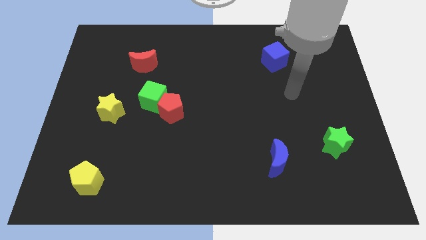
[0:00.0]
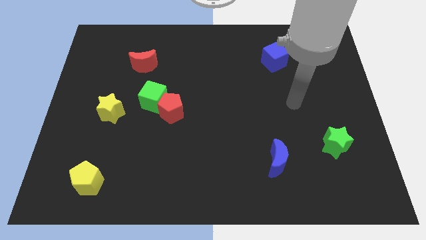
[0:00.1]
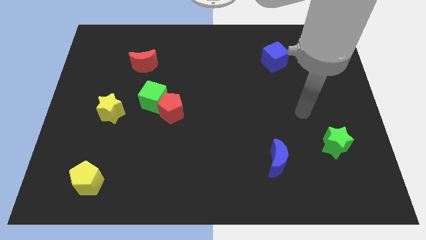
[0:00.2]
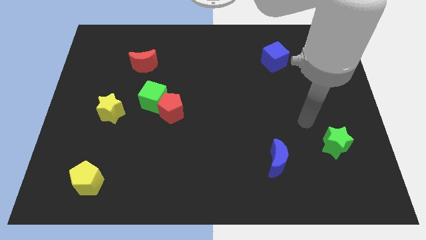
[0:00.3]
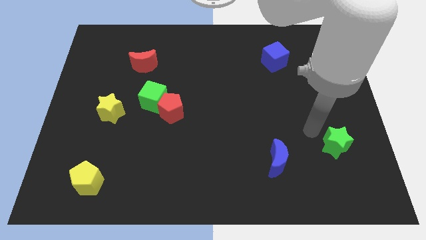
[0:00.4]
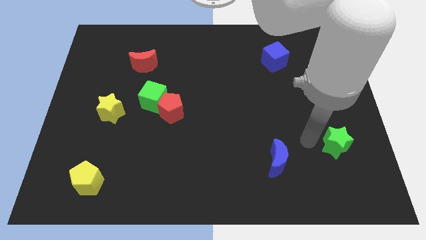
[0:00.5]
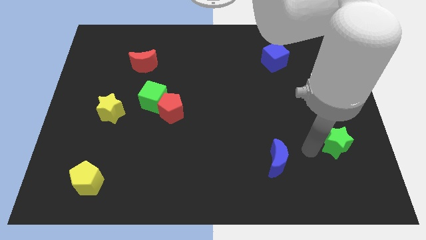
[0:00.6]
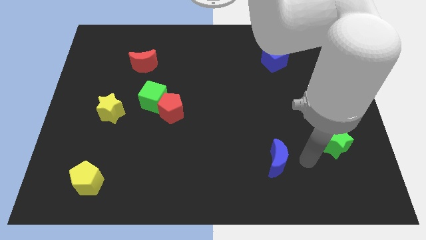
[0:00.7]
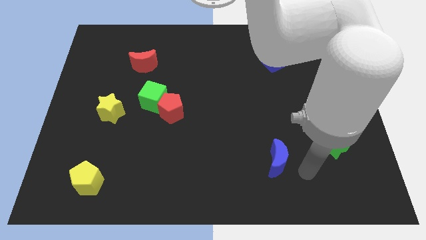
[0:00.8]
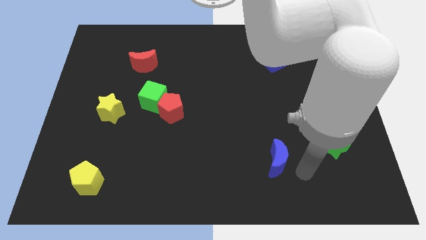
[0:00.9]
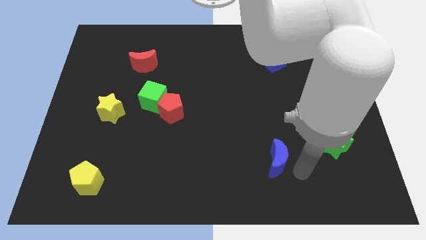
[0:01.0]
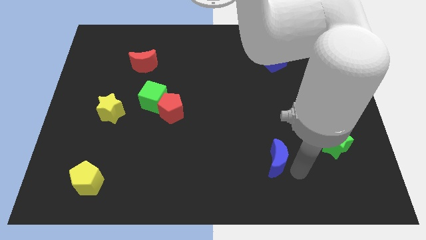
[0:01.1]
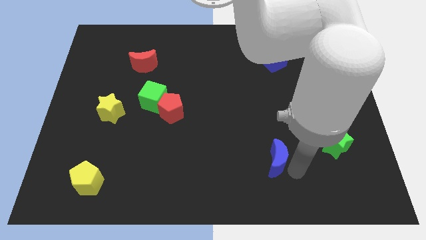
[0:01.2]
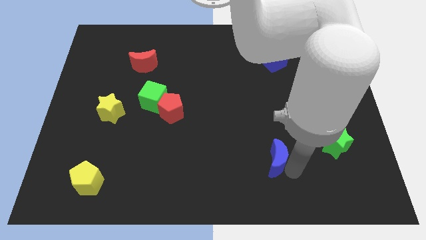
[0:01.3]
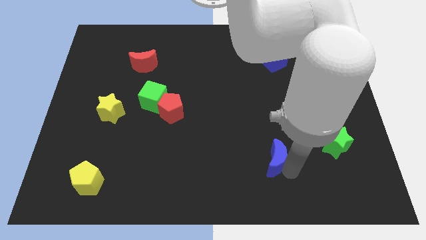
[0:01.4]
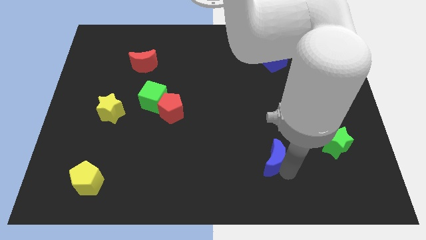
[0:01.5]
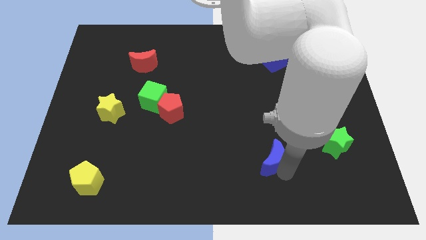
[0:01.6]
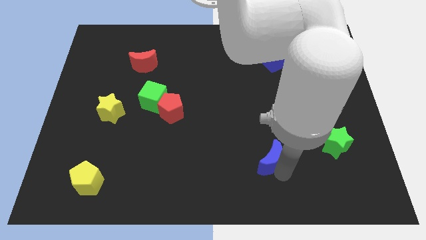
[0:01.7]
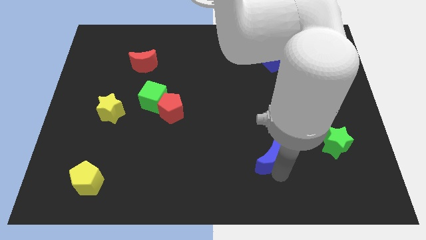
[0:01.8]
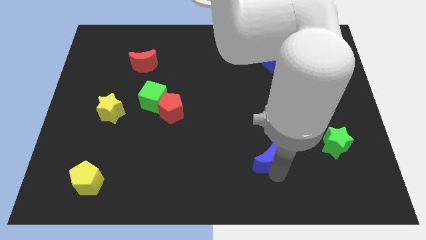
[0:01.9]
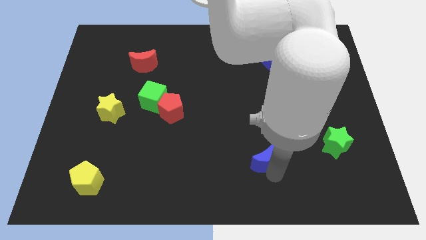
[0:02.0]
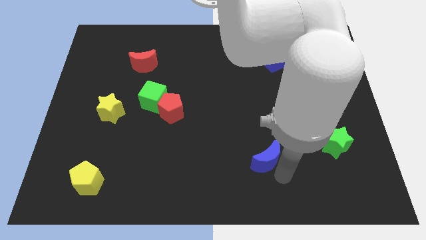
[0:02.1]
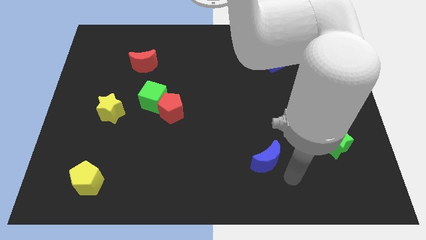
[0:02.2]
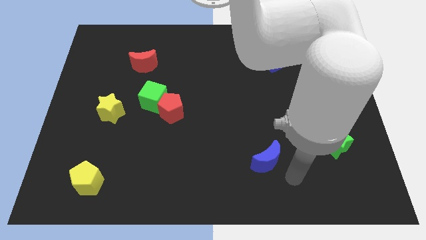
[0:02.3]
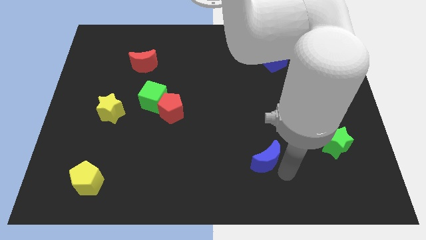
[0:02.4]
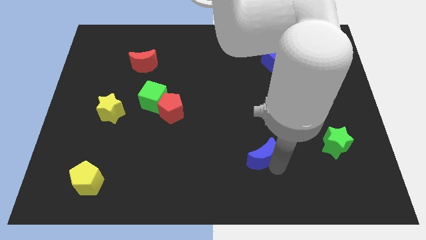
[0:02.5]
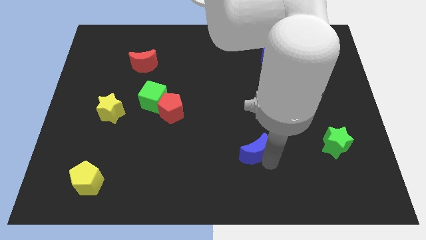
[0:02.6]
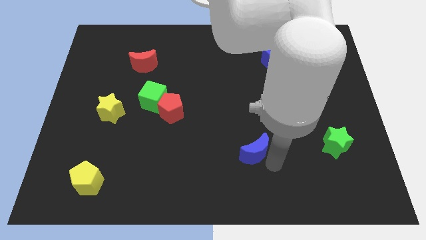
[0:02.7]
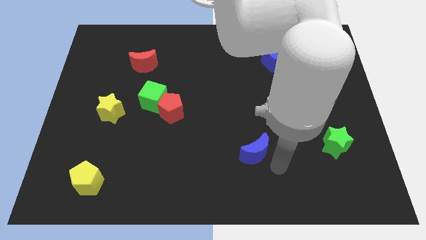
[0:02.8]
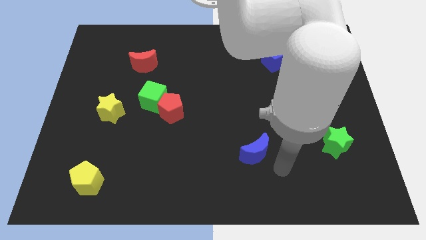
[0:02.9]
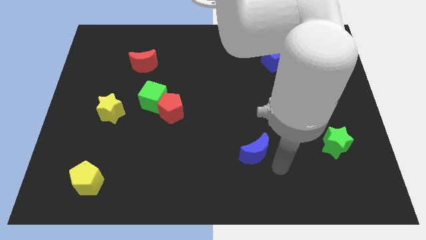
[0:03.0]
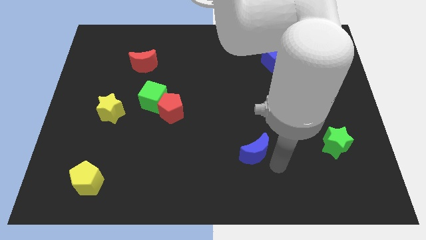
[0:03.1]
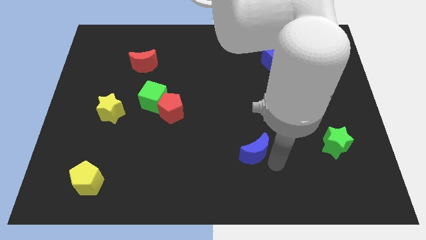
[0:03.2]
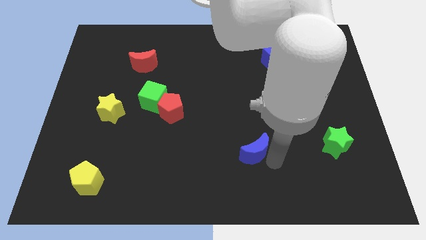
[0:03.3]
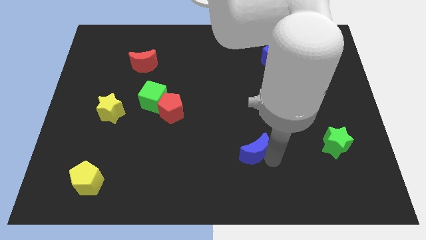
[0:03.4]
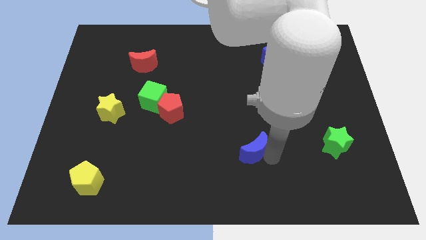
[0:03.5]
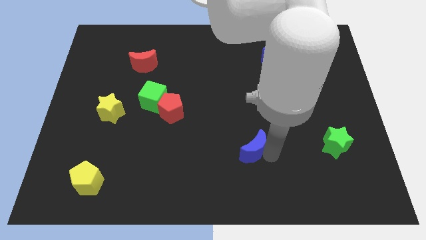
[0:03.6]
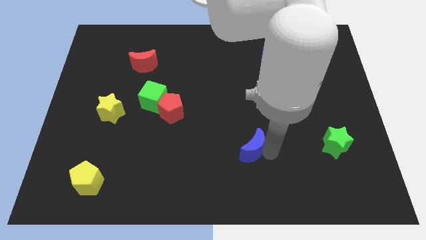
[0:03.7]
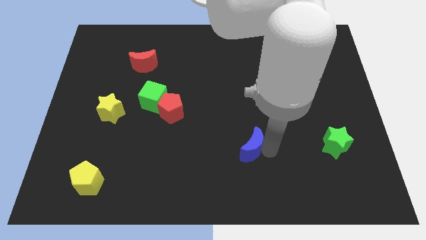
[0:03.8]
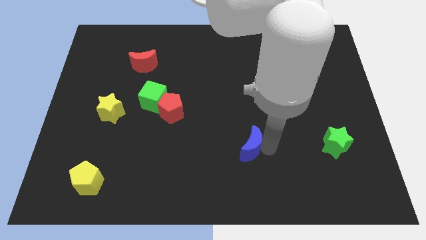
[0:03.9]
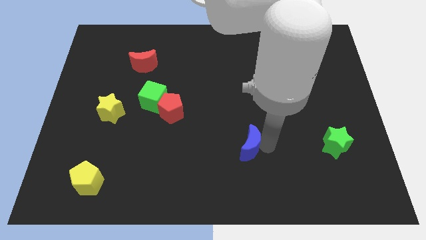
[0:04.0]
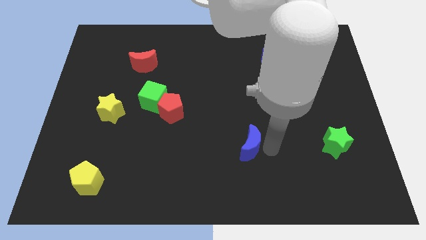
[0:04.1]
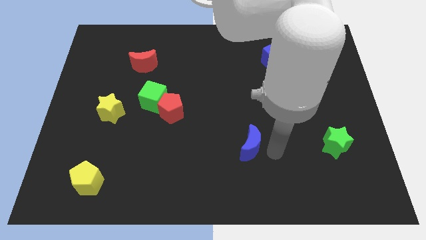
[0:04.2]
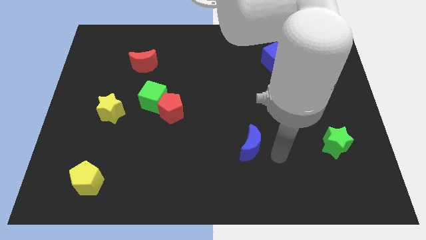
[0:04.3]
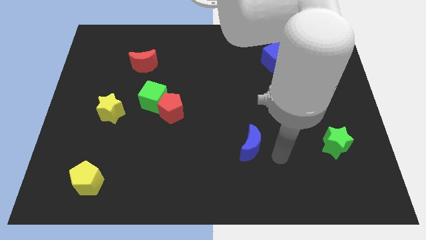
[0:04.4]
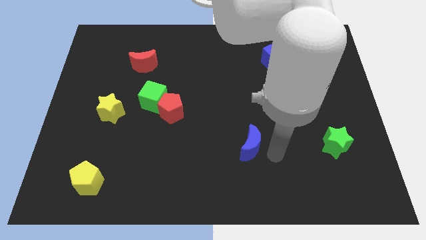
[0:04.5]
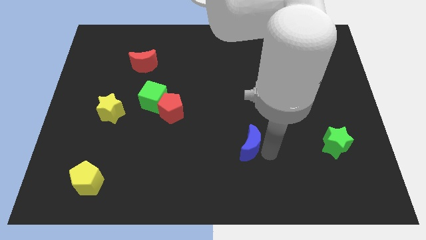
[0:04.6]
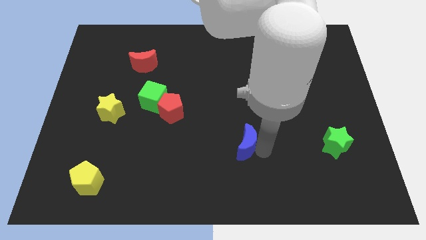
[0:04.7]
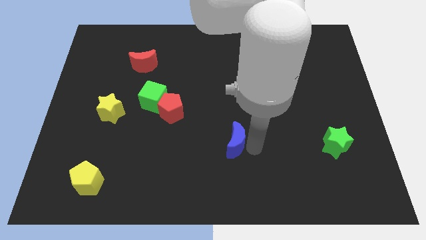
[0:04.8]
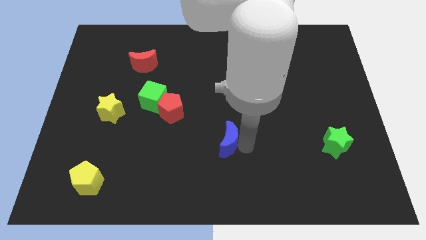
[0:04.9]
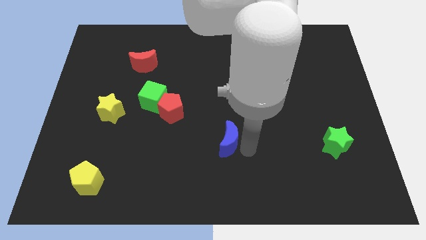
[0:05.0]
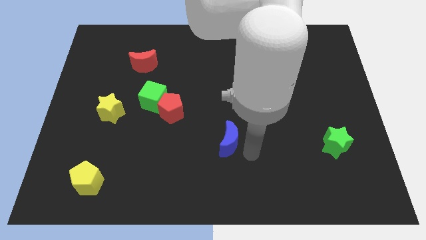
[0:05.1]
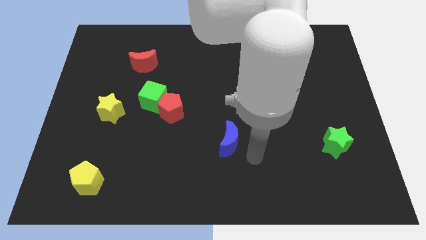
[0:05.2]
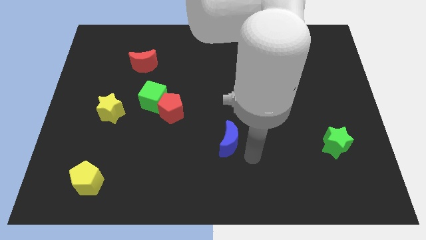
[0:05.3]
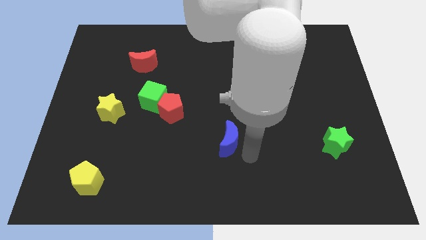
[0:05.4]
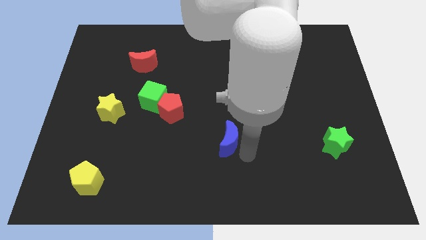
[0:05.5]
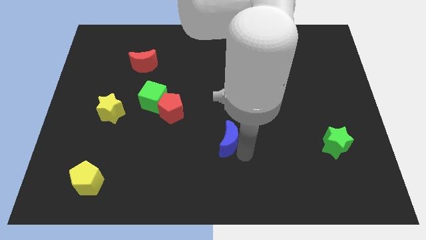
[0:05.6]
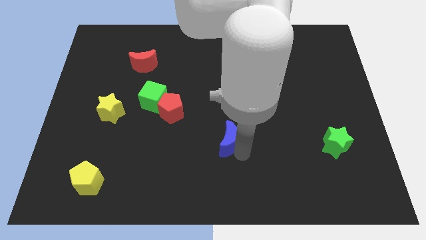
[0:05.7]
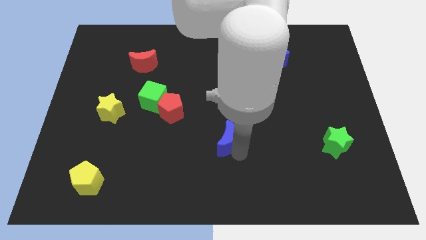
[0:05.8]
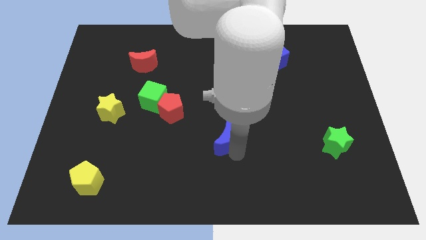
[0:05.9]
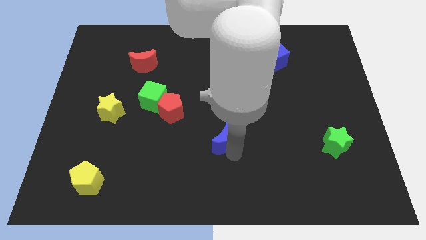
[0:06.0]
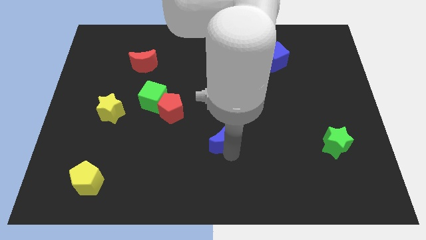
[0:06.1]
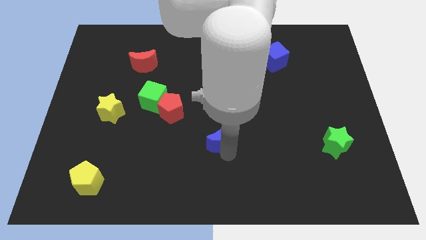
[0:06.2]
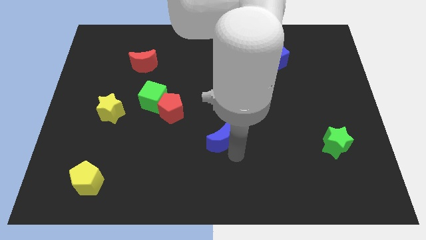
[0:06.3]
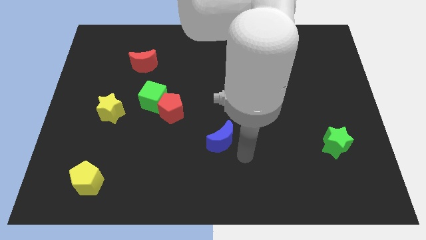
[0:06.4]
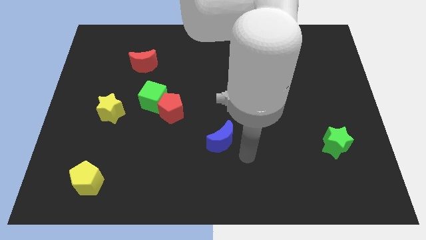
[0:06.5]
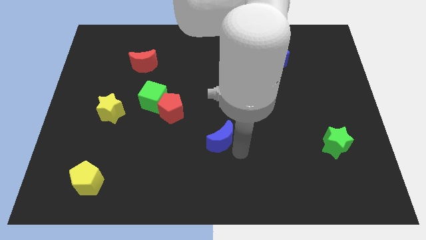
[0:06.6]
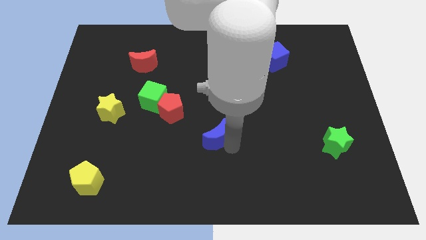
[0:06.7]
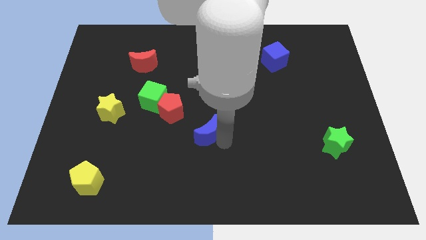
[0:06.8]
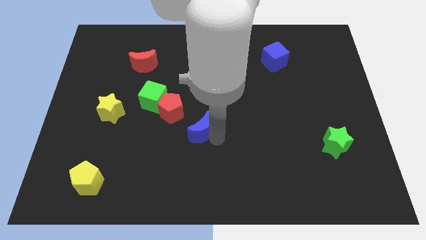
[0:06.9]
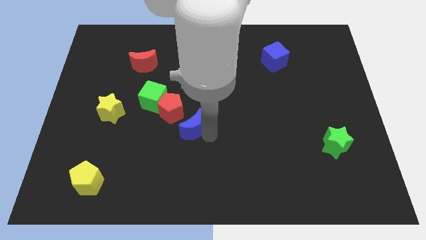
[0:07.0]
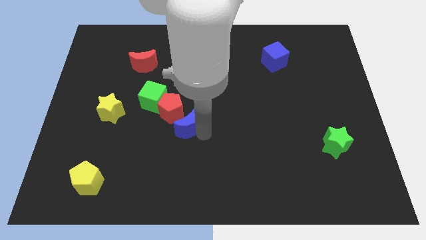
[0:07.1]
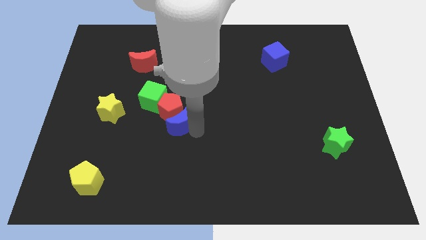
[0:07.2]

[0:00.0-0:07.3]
move the blue moon next to the red pentagon

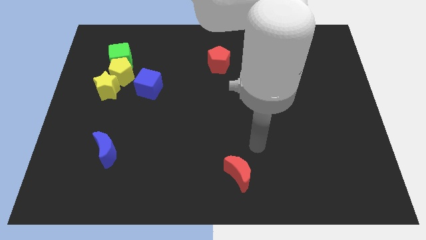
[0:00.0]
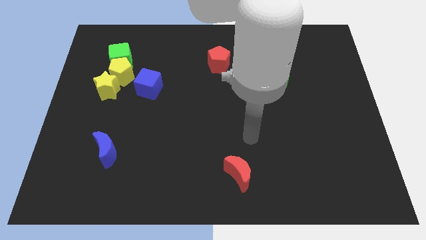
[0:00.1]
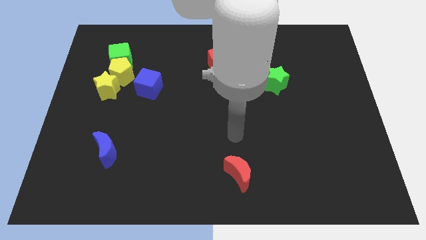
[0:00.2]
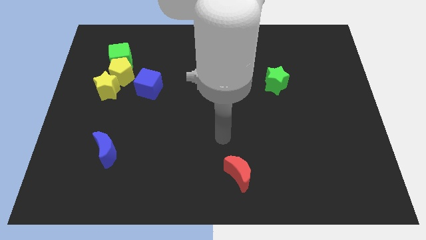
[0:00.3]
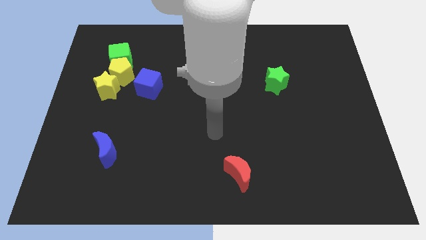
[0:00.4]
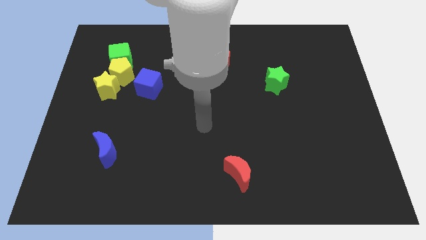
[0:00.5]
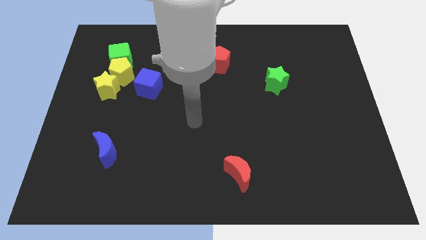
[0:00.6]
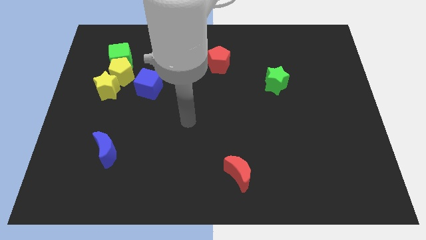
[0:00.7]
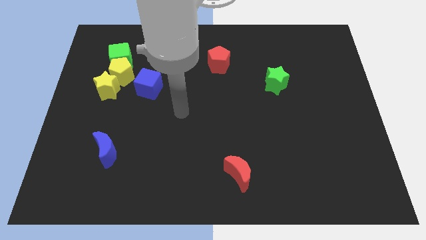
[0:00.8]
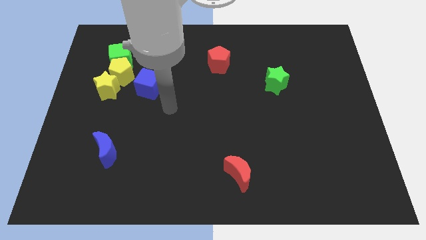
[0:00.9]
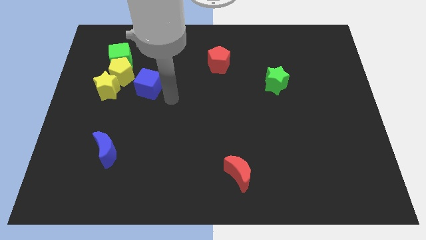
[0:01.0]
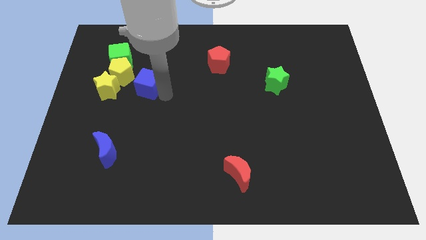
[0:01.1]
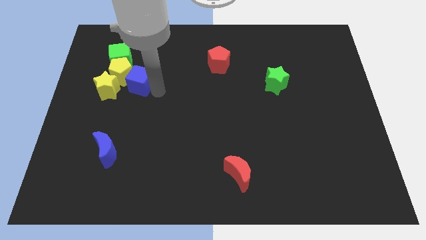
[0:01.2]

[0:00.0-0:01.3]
move the blue cube next to the yellow pentagon
